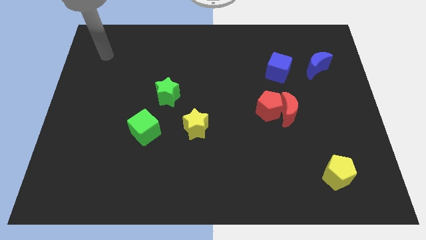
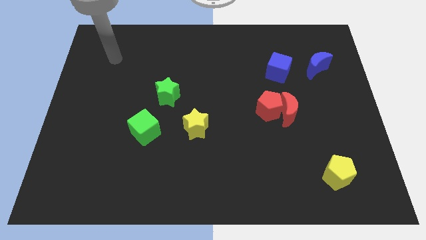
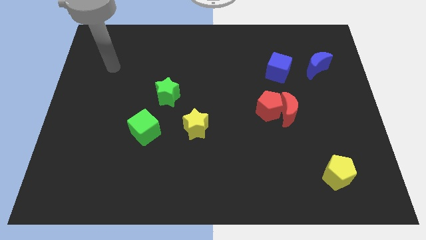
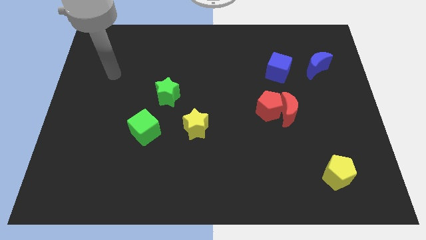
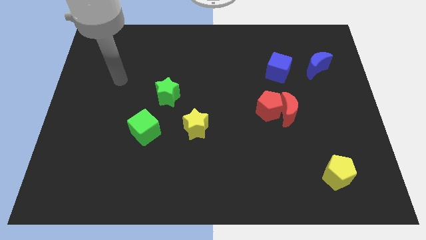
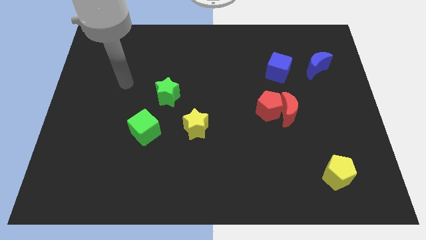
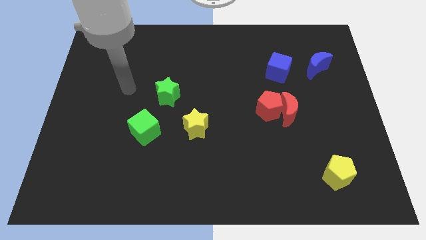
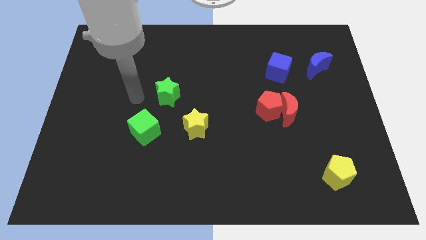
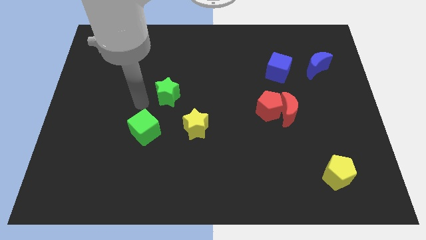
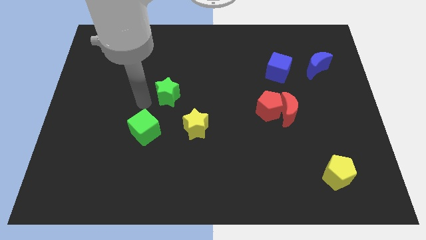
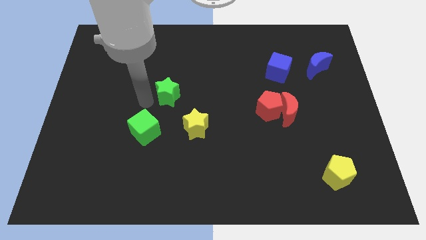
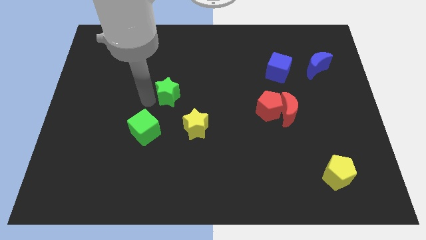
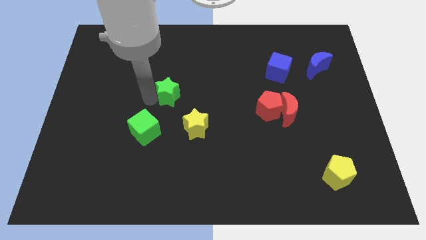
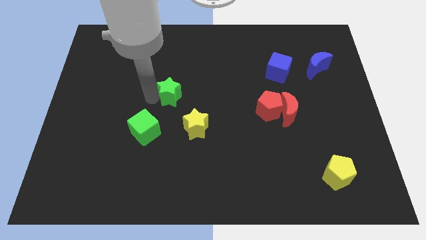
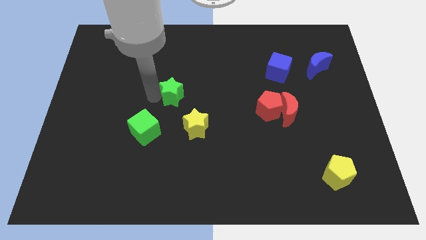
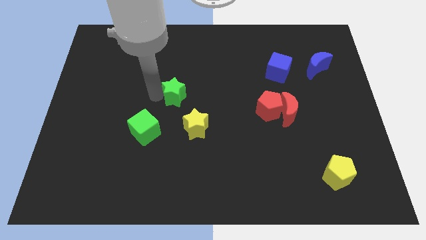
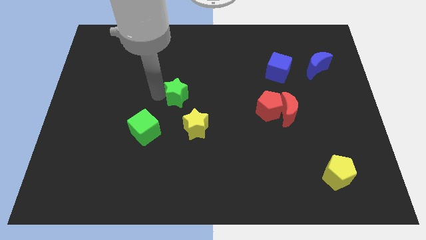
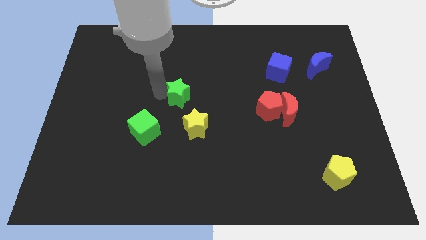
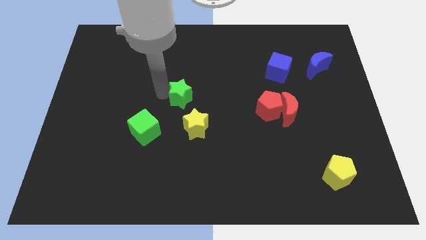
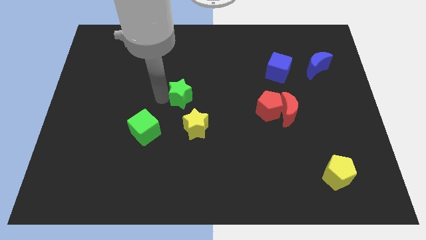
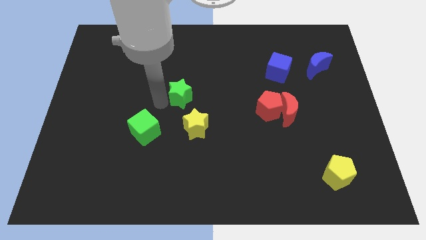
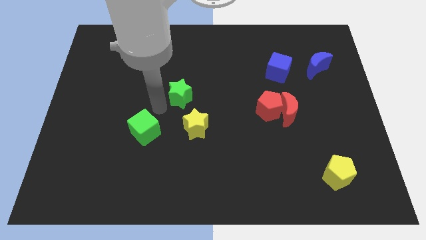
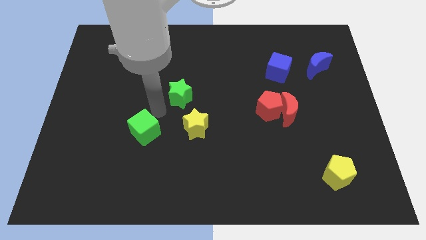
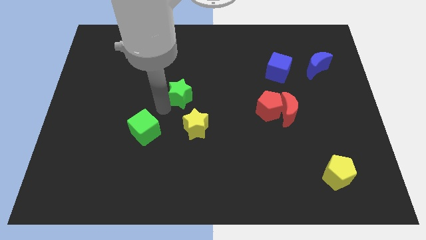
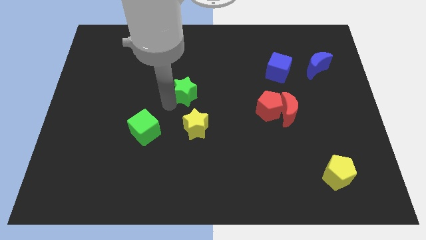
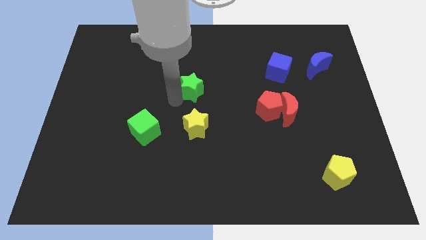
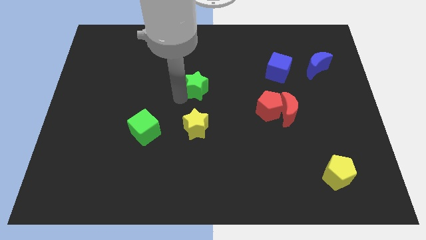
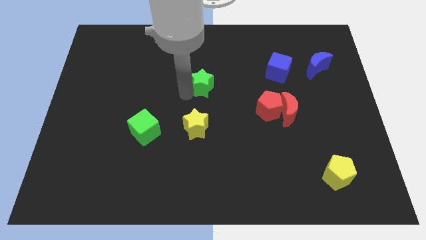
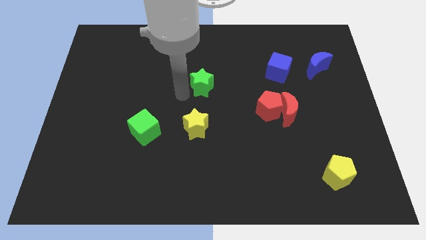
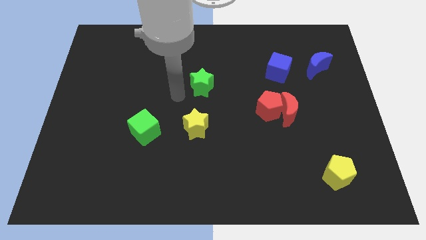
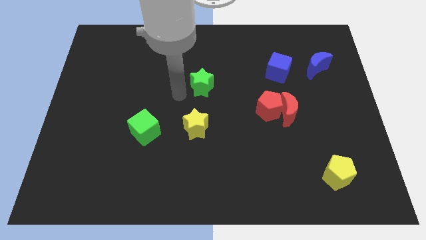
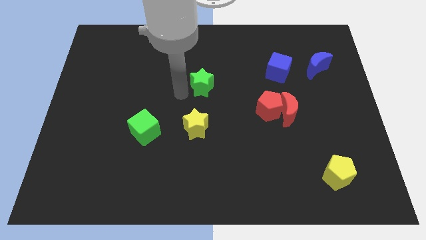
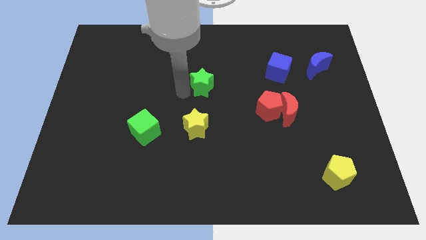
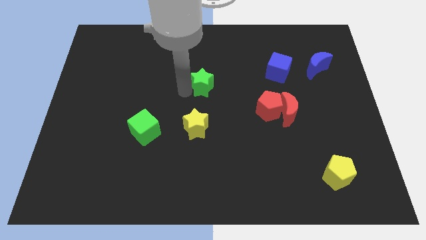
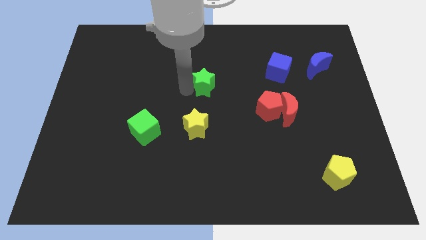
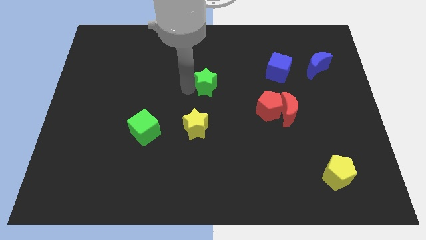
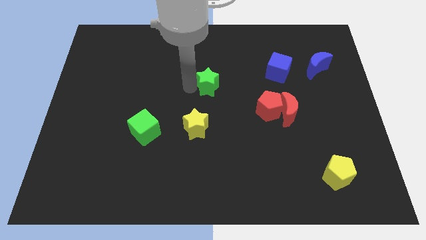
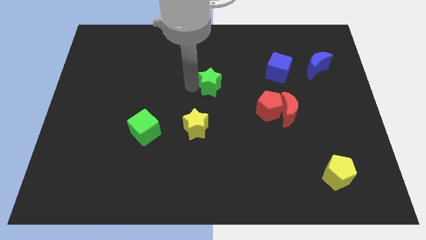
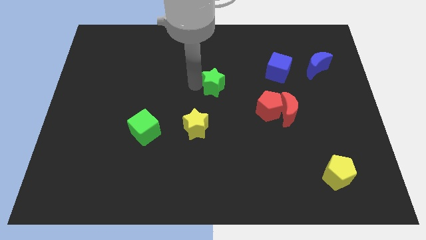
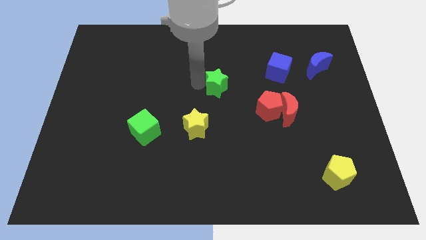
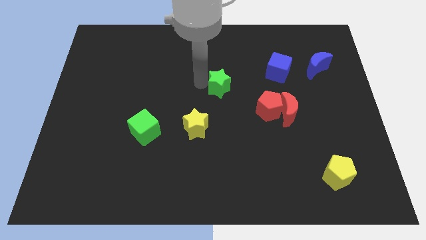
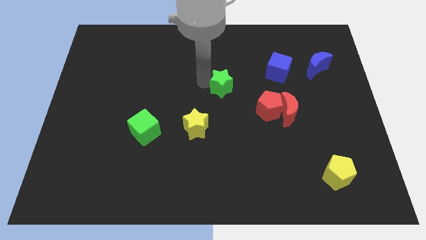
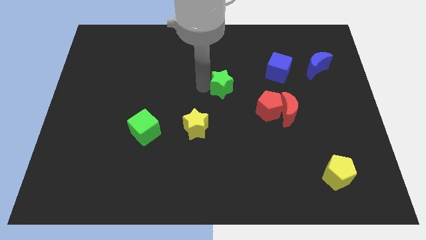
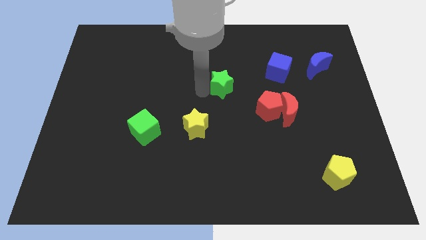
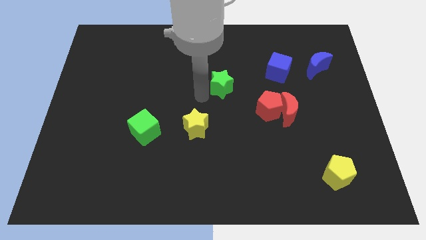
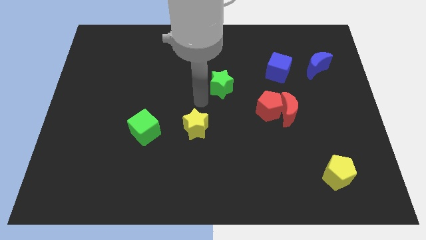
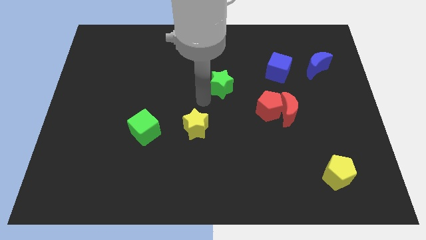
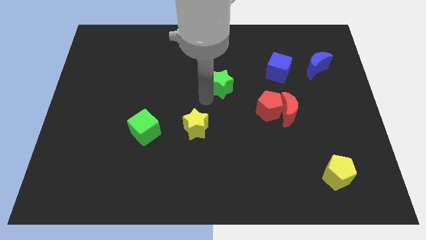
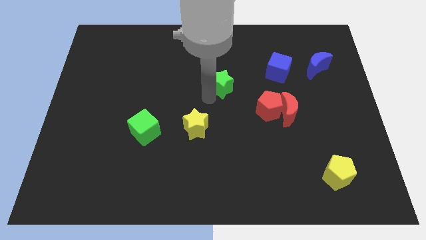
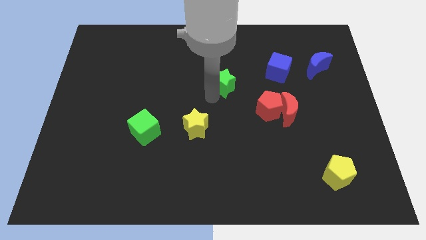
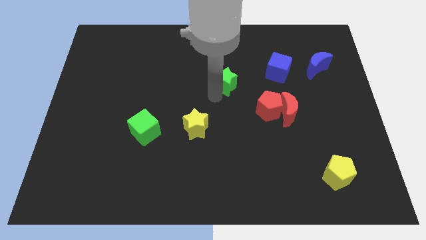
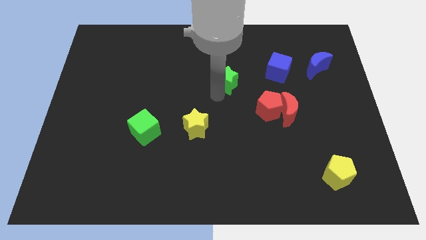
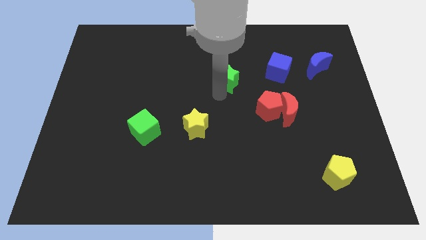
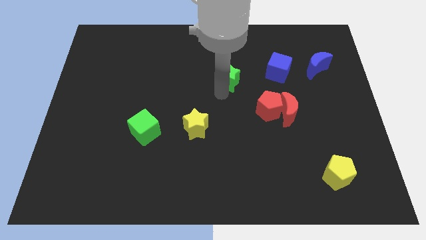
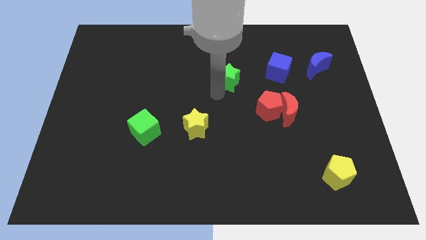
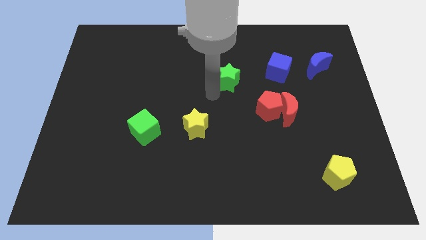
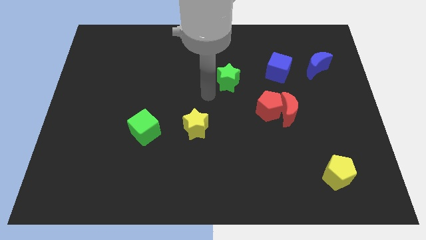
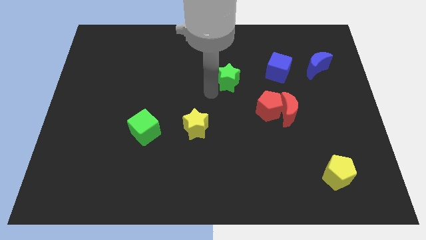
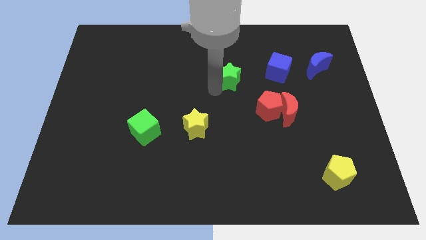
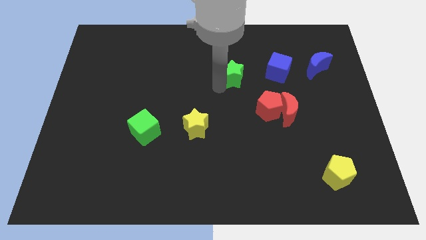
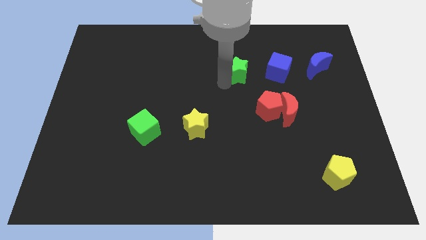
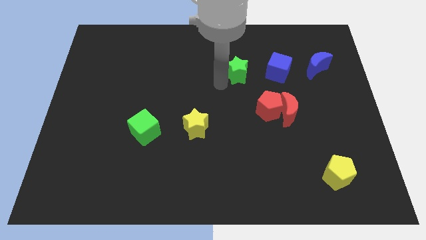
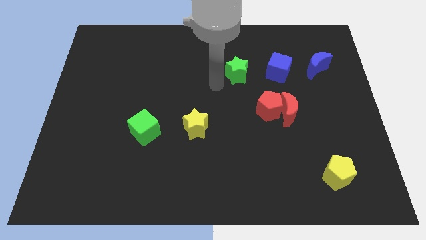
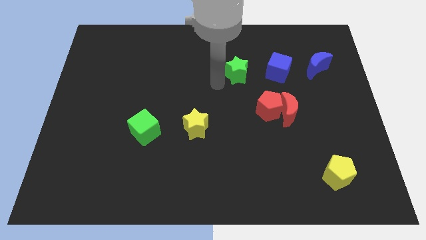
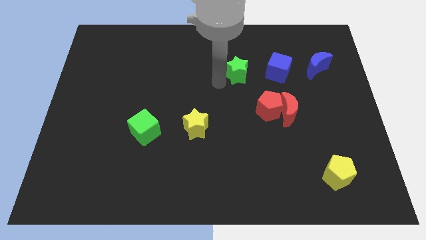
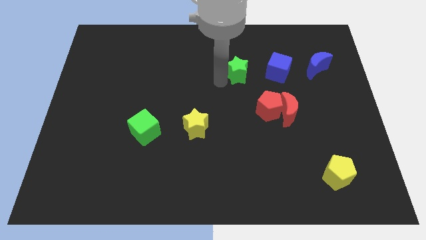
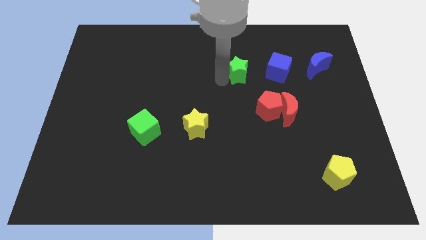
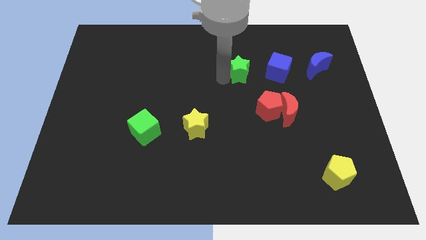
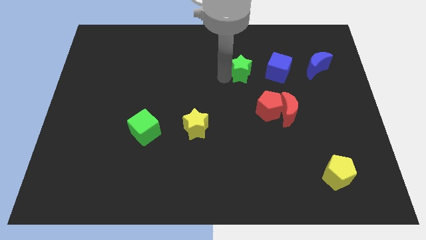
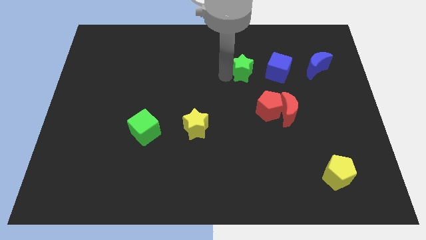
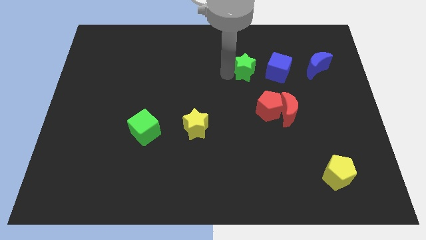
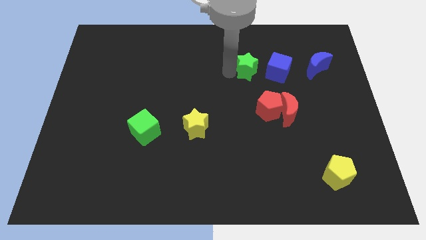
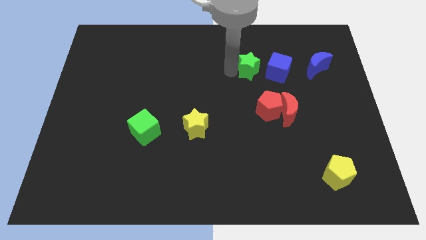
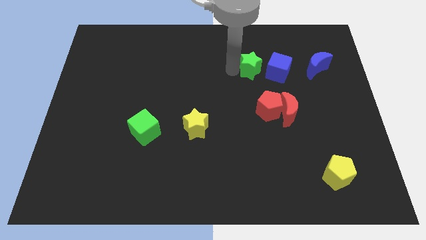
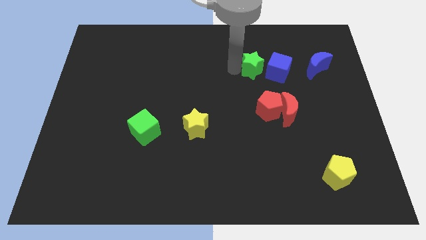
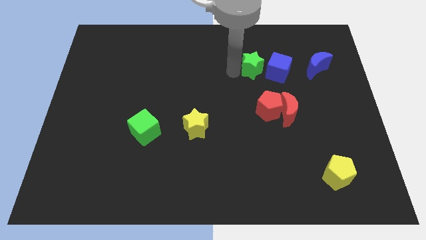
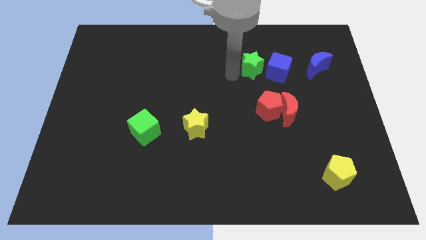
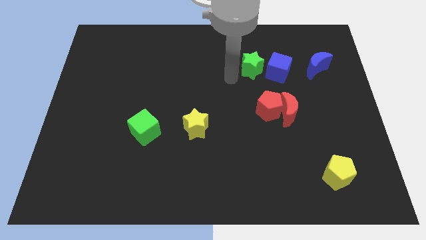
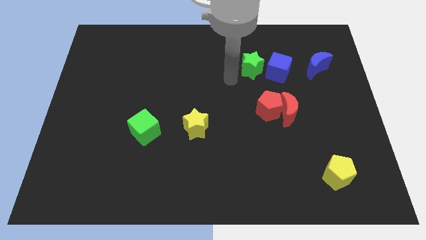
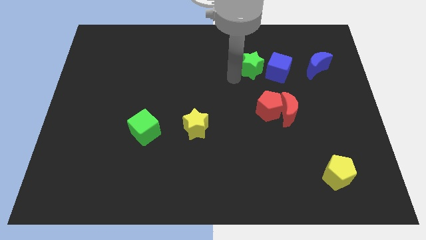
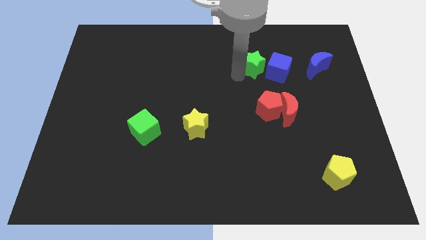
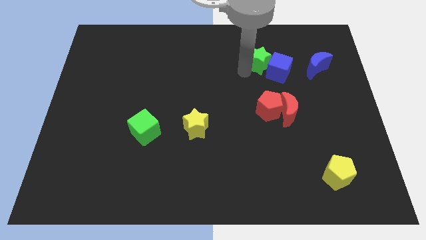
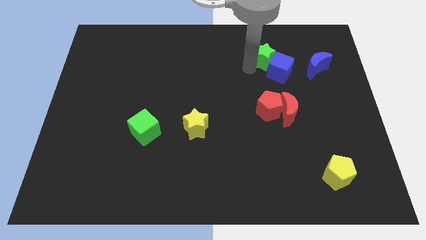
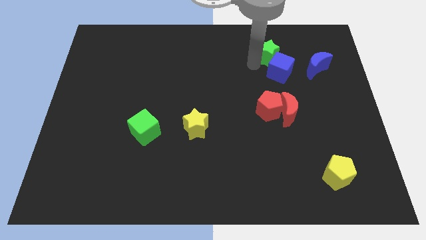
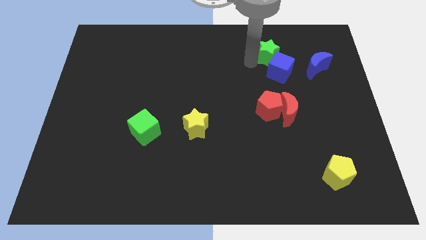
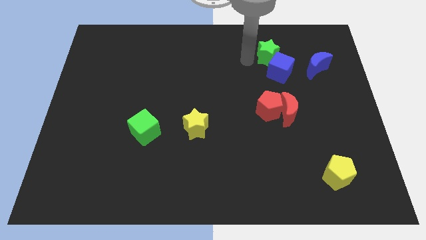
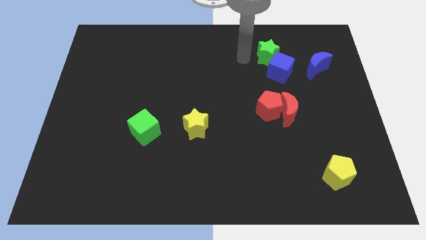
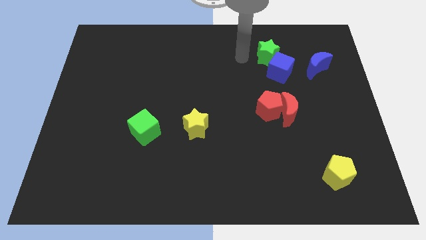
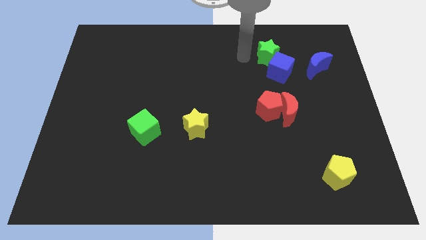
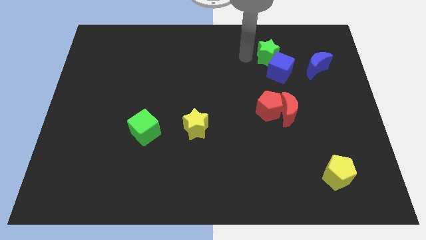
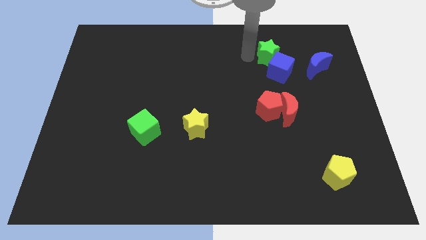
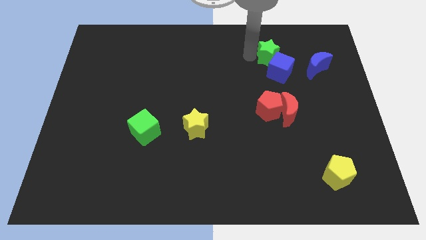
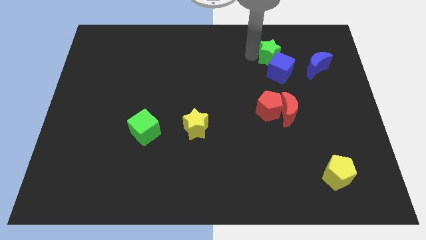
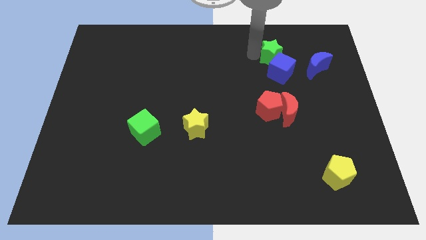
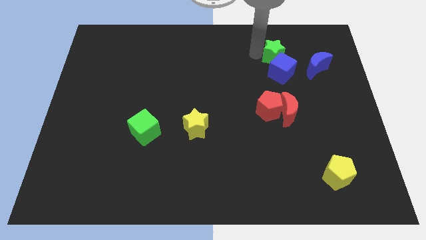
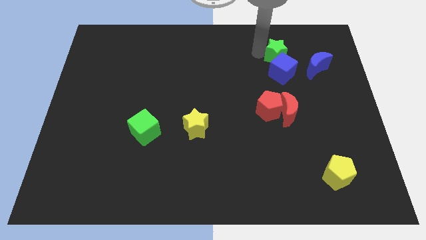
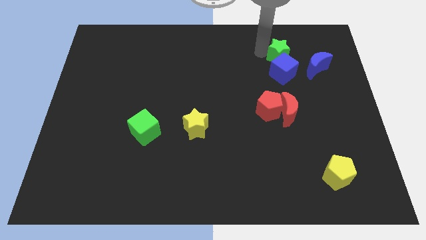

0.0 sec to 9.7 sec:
put the green star to the top right of the blue cube
